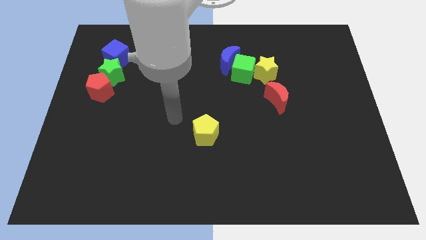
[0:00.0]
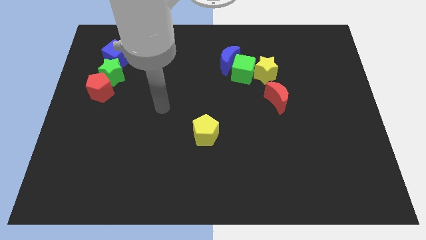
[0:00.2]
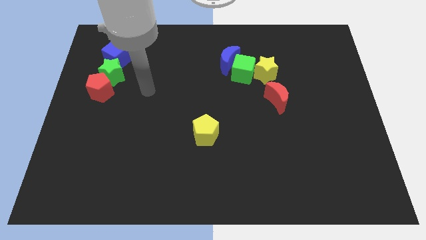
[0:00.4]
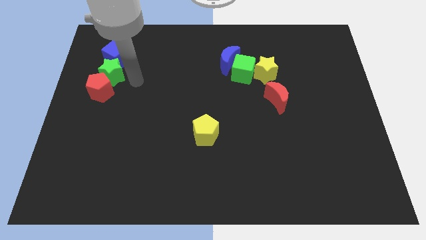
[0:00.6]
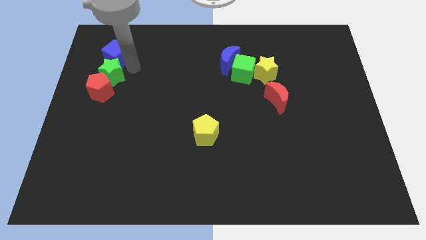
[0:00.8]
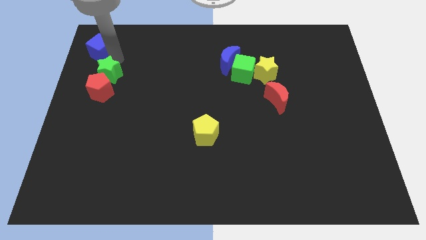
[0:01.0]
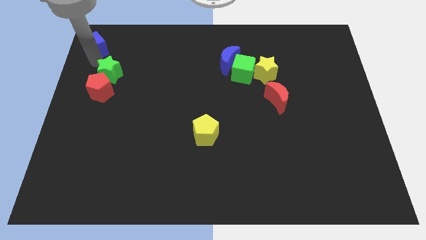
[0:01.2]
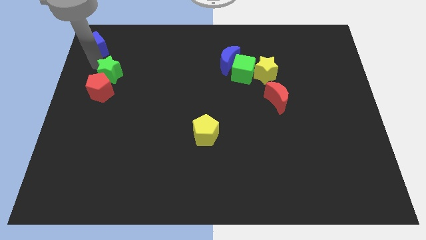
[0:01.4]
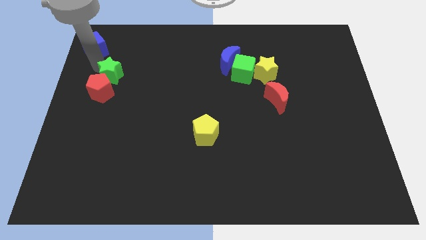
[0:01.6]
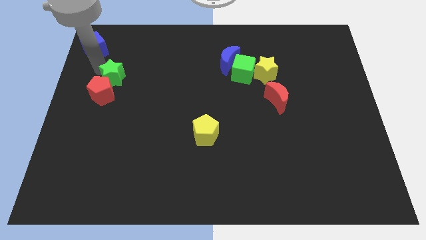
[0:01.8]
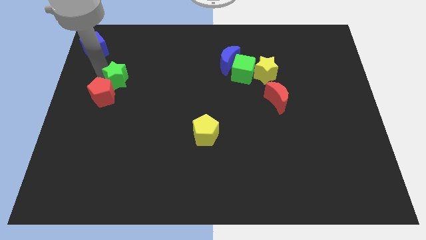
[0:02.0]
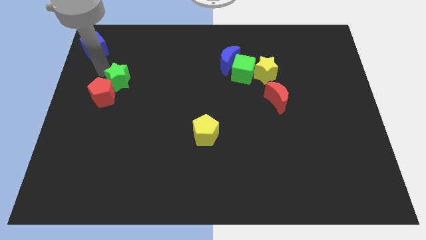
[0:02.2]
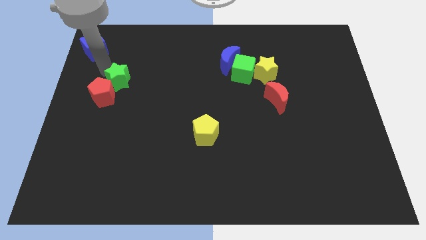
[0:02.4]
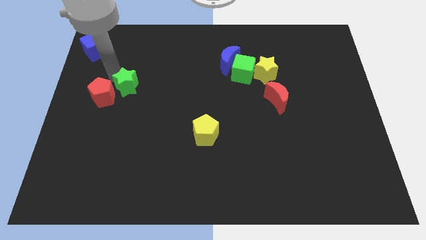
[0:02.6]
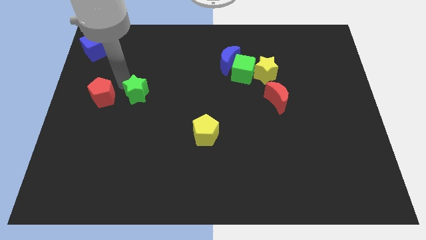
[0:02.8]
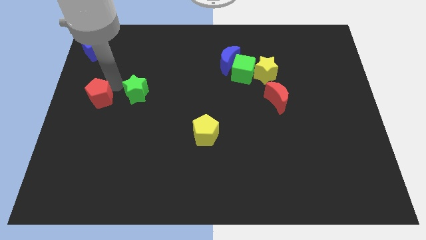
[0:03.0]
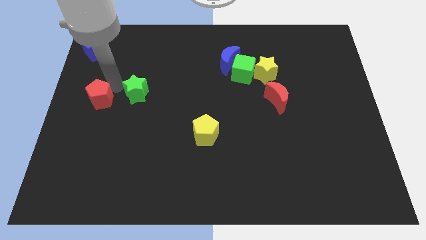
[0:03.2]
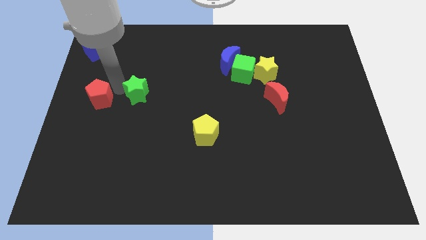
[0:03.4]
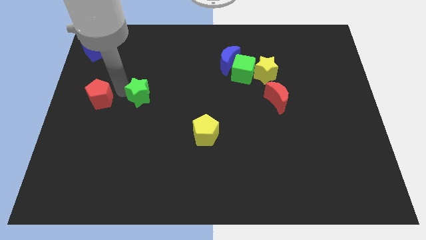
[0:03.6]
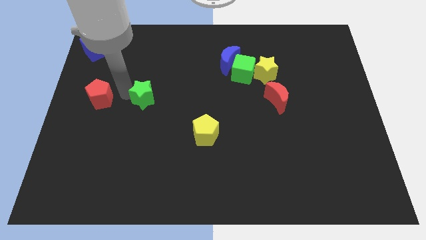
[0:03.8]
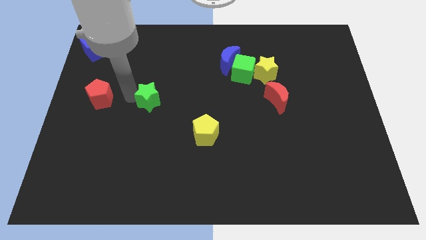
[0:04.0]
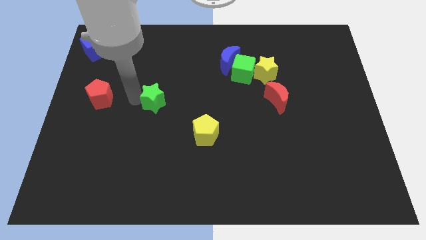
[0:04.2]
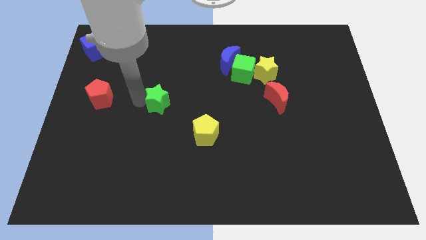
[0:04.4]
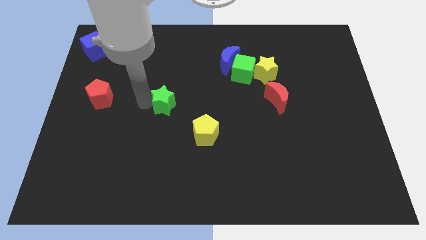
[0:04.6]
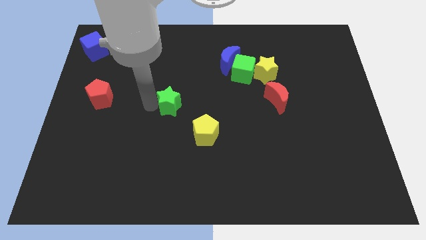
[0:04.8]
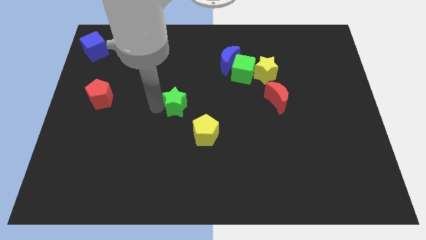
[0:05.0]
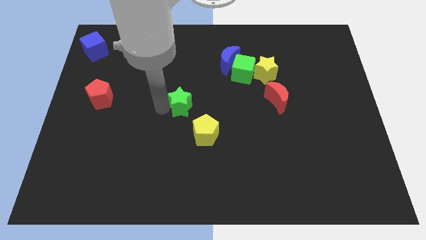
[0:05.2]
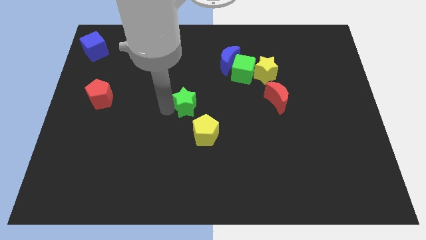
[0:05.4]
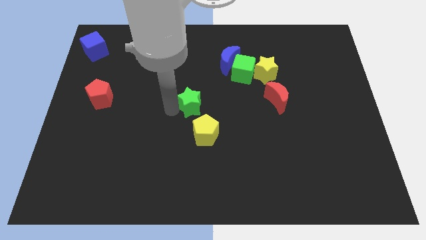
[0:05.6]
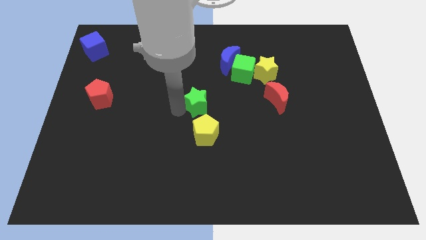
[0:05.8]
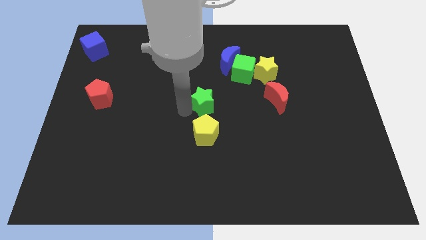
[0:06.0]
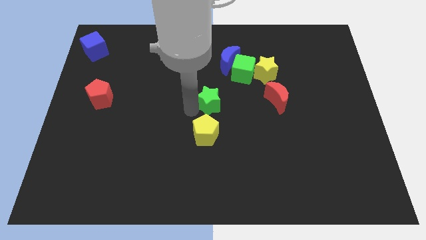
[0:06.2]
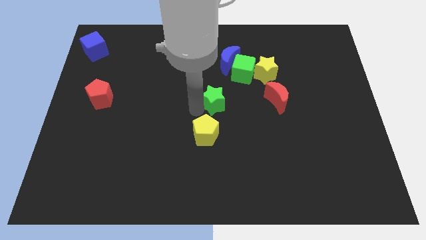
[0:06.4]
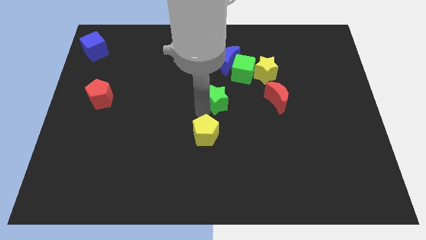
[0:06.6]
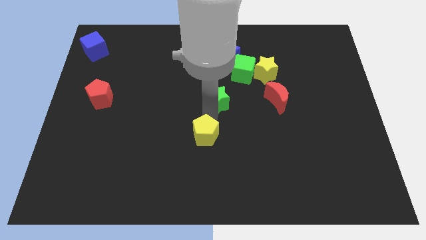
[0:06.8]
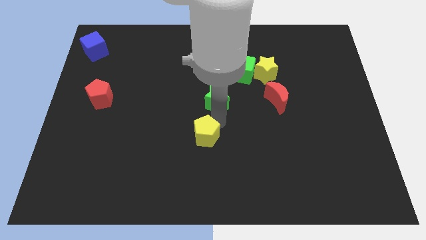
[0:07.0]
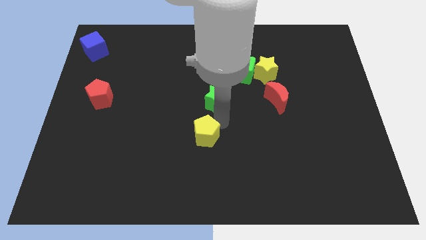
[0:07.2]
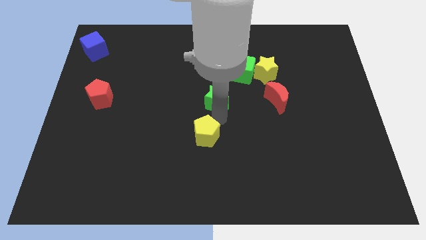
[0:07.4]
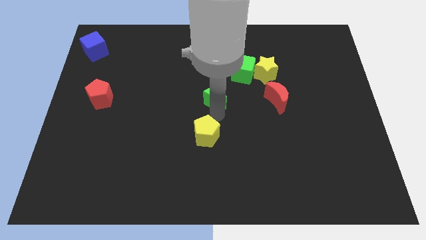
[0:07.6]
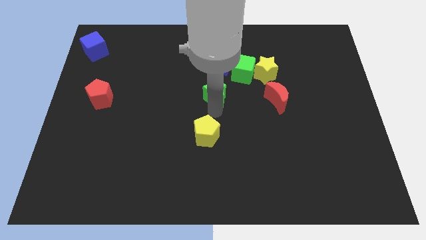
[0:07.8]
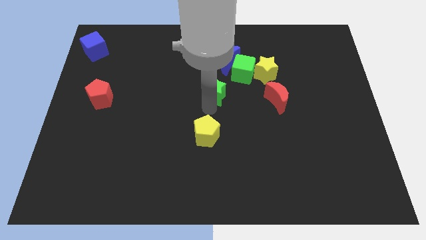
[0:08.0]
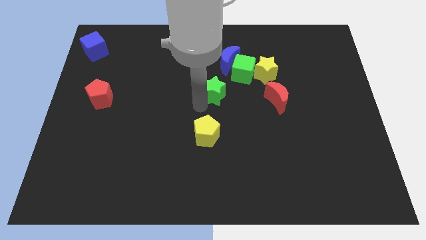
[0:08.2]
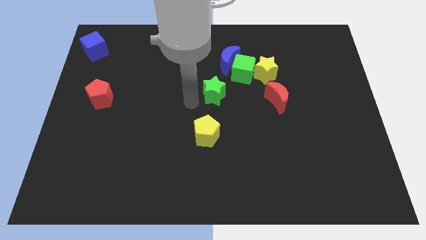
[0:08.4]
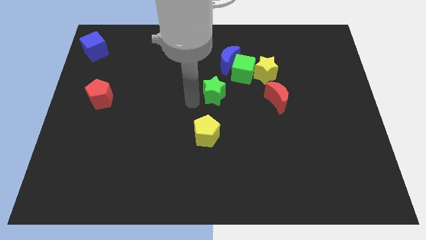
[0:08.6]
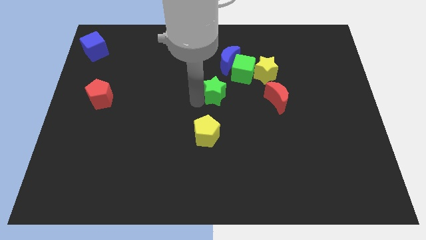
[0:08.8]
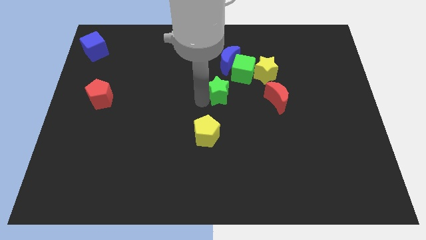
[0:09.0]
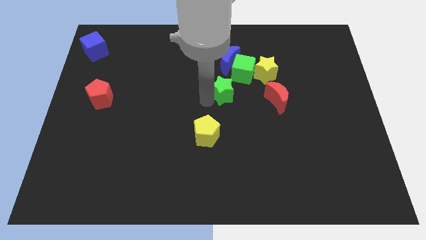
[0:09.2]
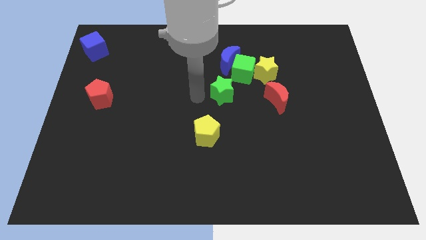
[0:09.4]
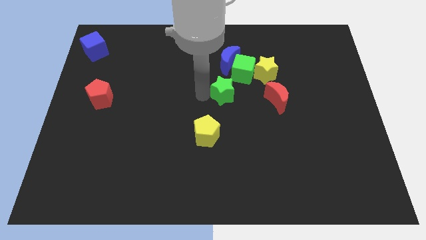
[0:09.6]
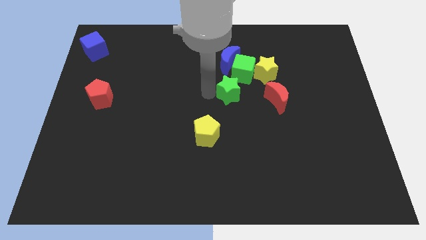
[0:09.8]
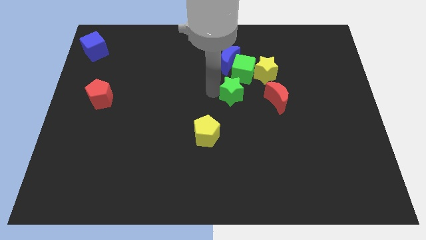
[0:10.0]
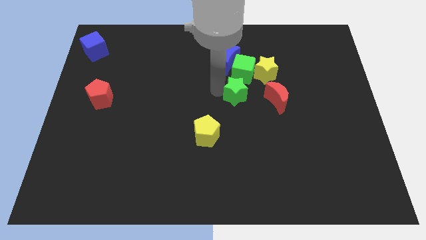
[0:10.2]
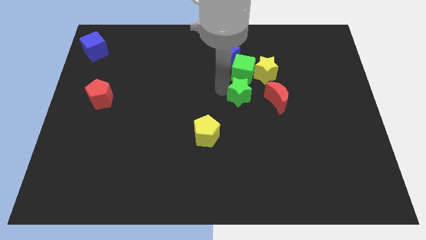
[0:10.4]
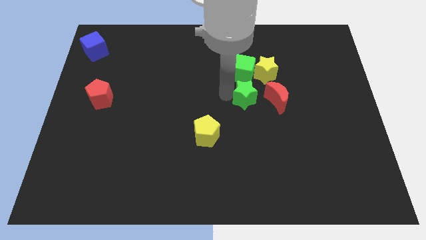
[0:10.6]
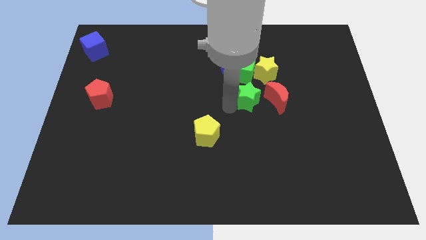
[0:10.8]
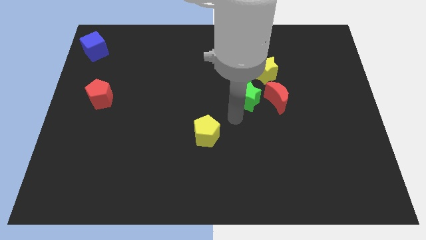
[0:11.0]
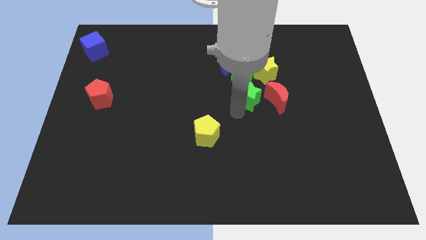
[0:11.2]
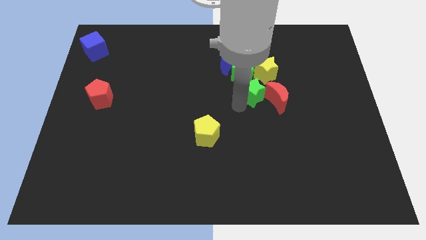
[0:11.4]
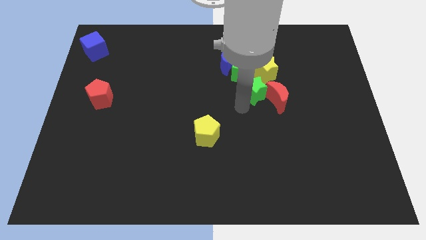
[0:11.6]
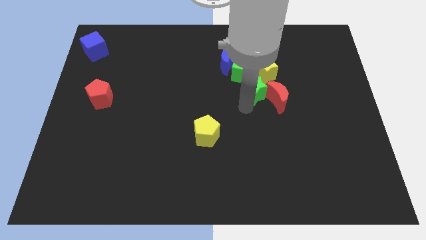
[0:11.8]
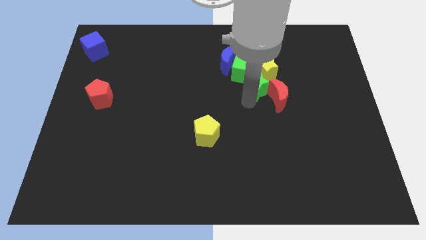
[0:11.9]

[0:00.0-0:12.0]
slide the green star towards the yellow star

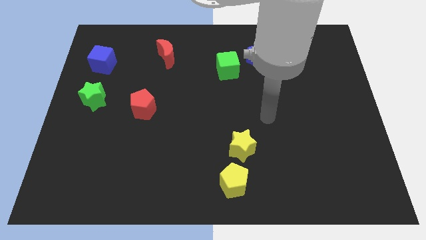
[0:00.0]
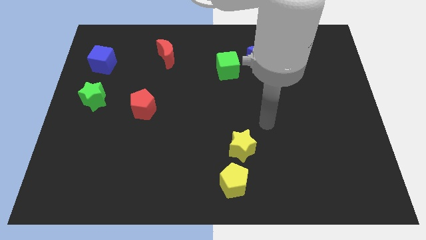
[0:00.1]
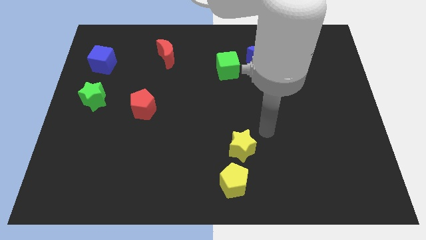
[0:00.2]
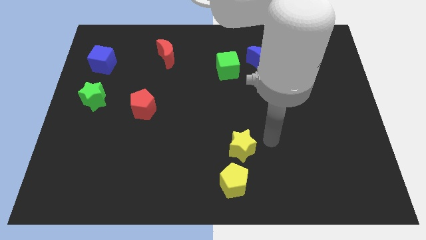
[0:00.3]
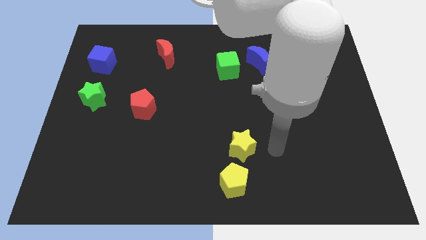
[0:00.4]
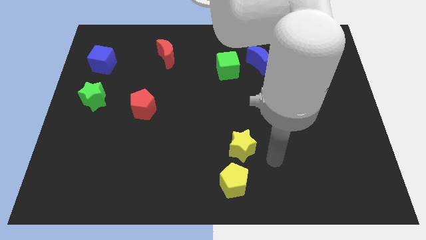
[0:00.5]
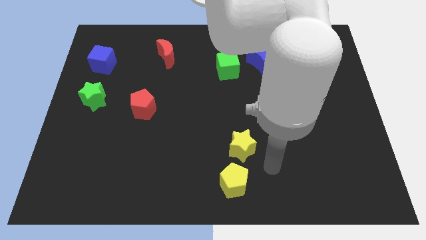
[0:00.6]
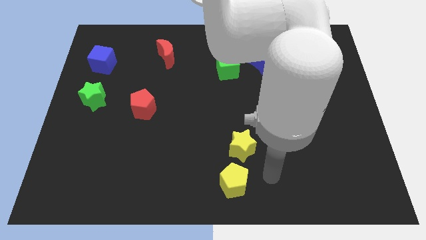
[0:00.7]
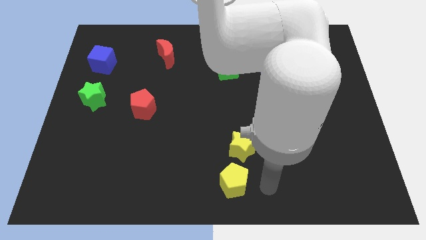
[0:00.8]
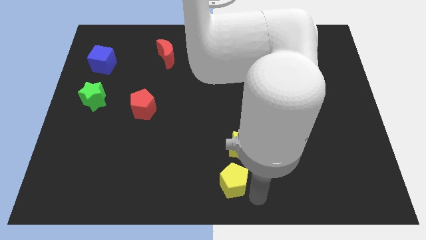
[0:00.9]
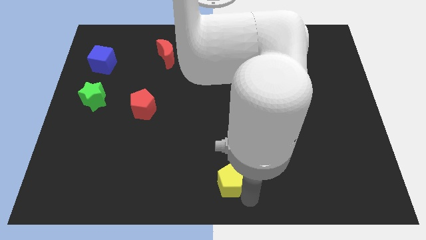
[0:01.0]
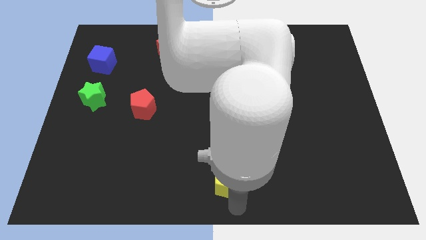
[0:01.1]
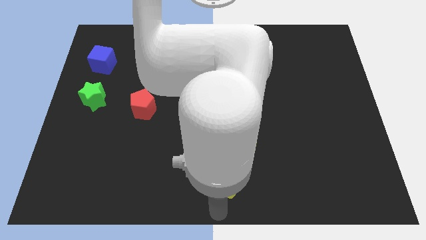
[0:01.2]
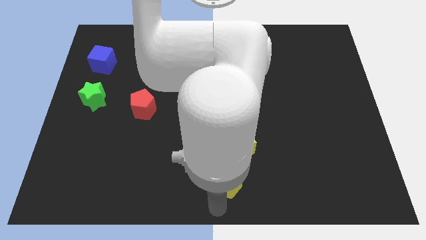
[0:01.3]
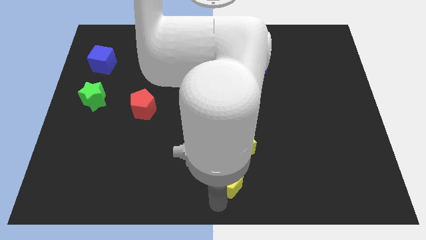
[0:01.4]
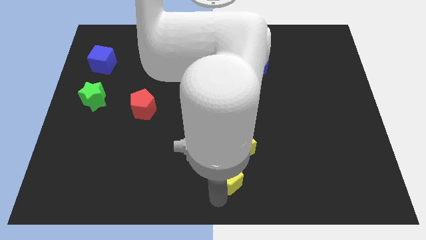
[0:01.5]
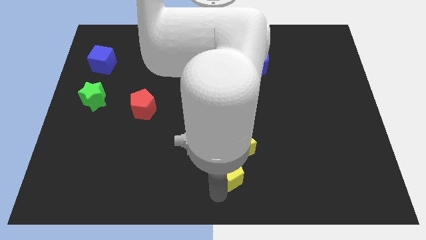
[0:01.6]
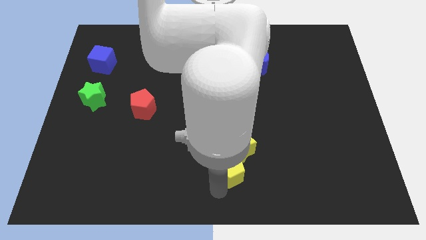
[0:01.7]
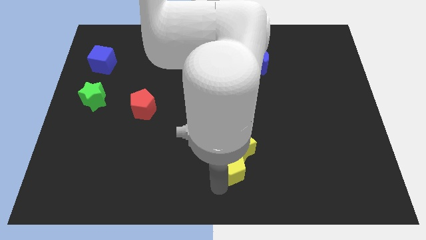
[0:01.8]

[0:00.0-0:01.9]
move the yellow pentagon next to the yellow star
